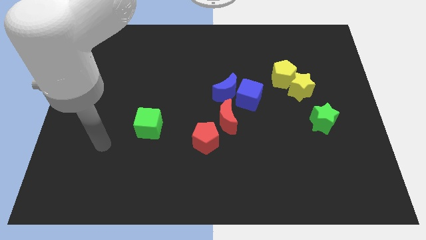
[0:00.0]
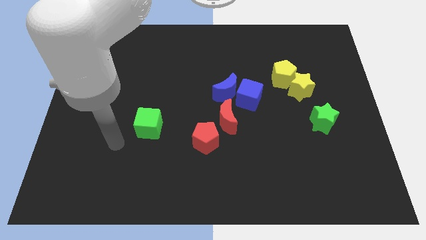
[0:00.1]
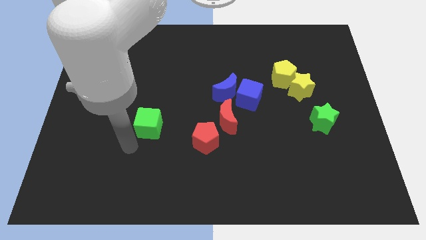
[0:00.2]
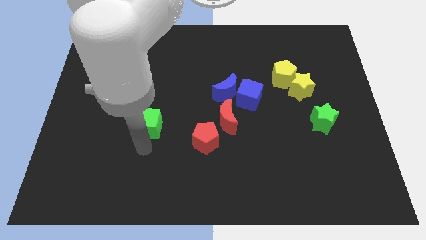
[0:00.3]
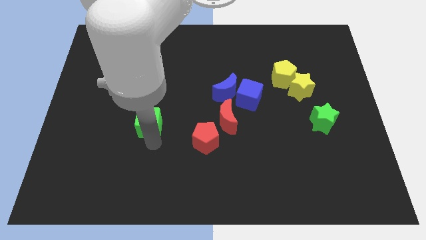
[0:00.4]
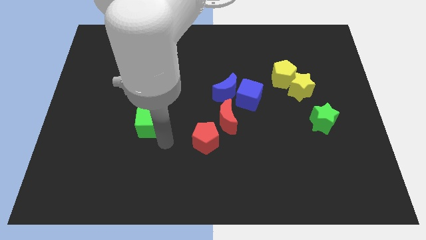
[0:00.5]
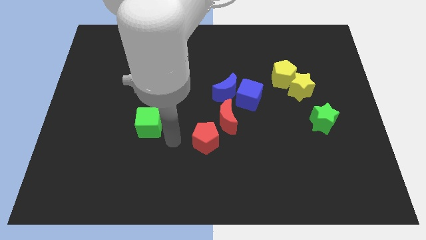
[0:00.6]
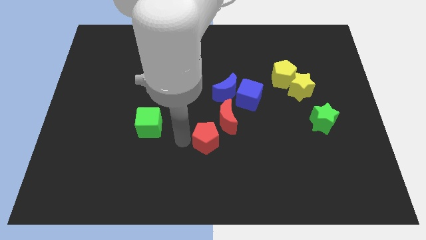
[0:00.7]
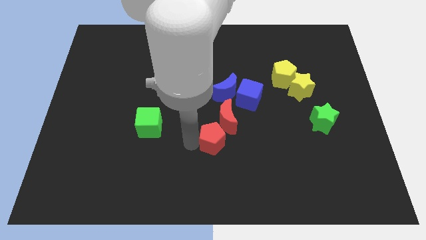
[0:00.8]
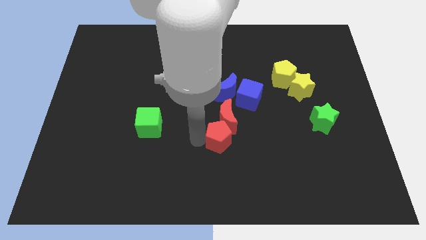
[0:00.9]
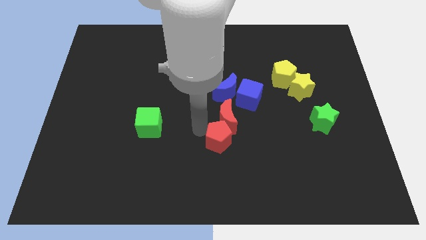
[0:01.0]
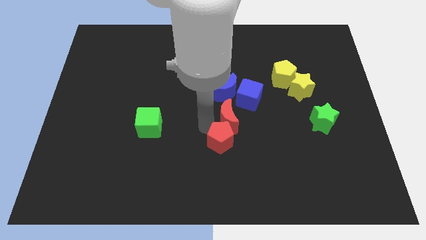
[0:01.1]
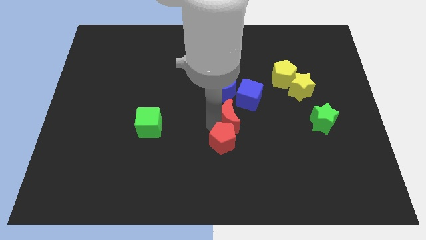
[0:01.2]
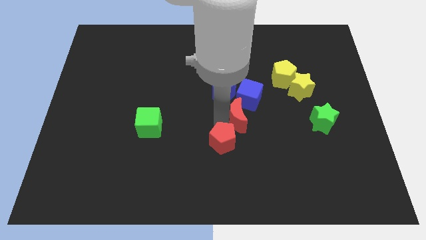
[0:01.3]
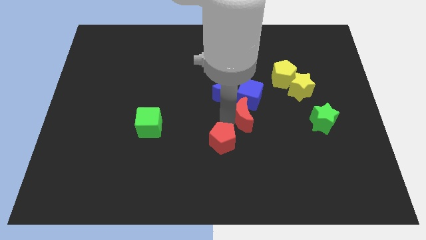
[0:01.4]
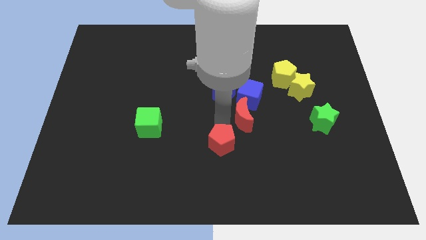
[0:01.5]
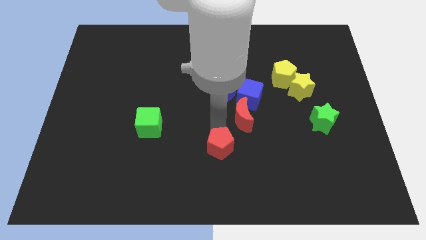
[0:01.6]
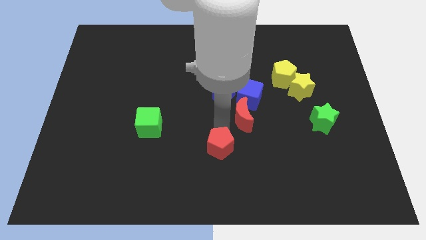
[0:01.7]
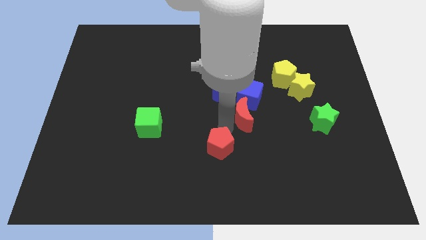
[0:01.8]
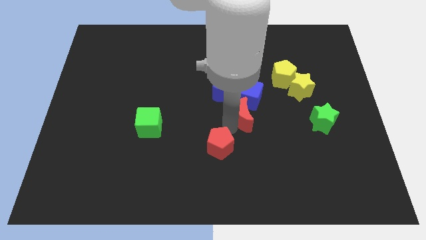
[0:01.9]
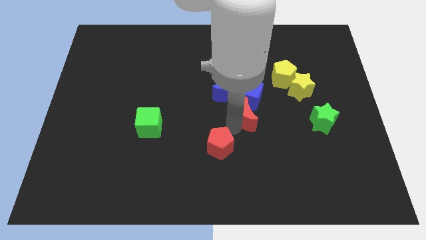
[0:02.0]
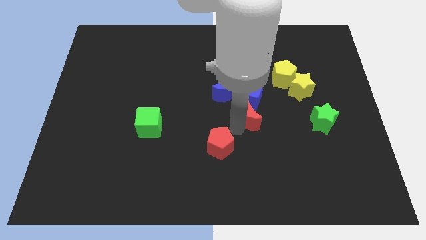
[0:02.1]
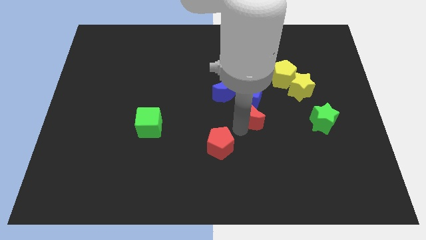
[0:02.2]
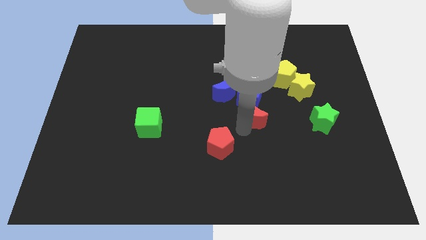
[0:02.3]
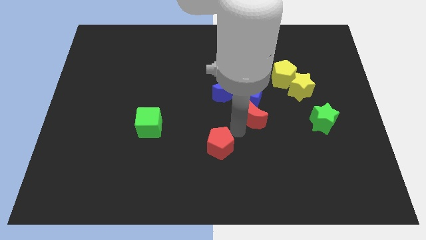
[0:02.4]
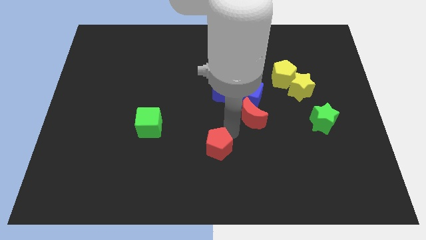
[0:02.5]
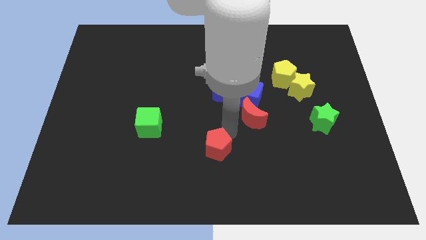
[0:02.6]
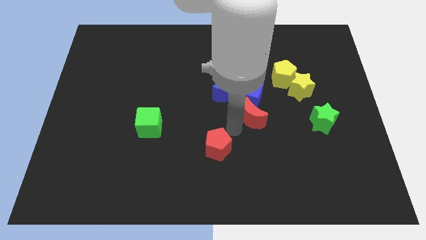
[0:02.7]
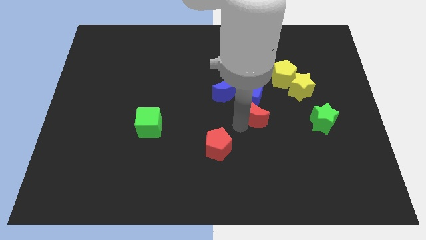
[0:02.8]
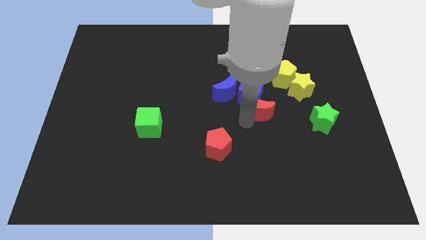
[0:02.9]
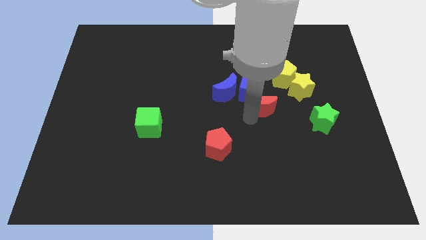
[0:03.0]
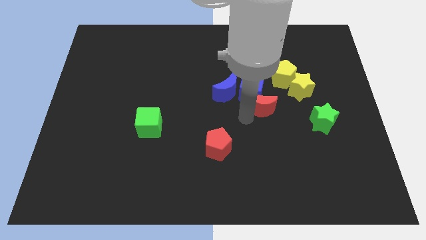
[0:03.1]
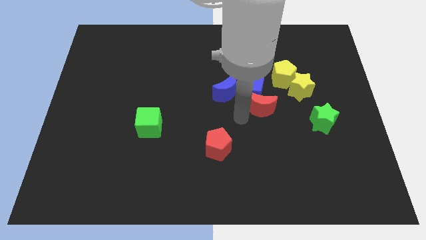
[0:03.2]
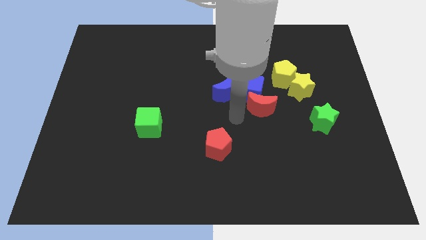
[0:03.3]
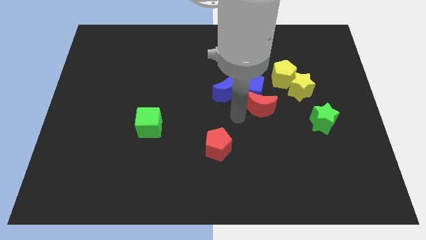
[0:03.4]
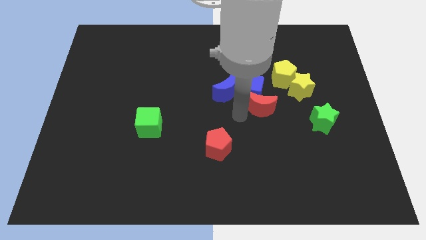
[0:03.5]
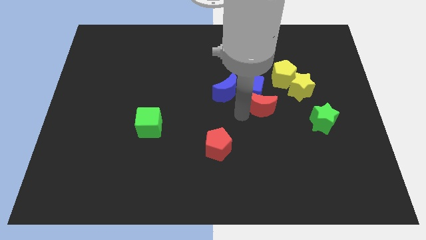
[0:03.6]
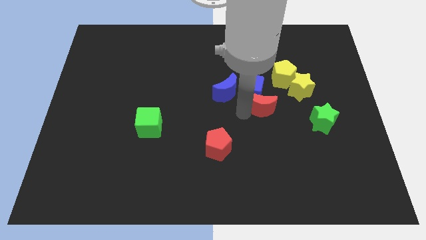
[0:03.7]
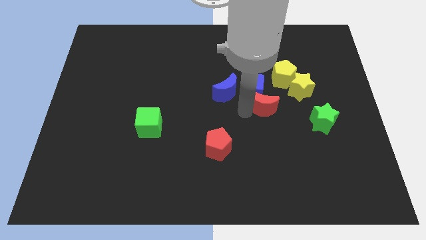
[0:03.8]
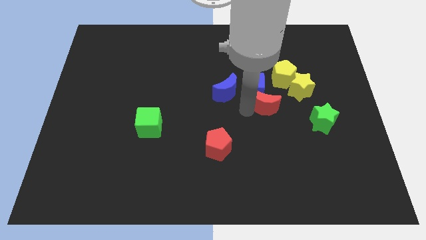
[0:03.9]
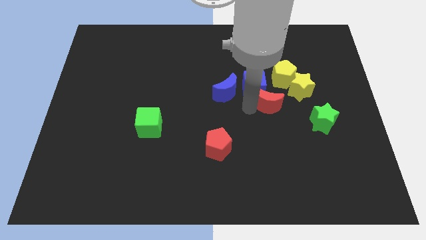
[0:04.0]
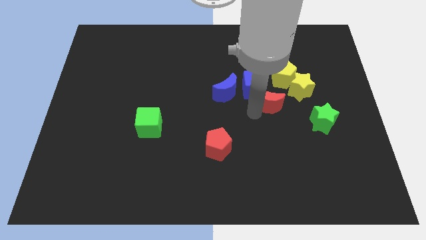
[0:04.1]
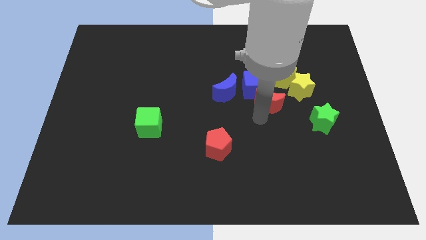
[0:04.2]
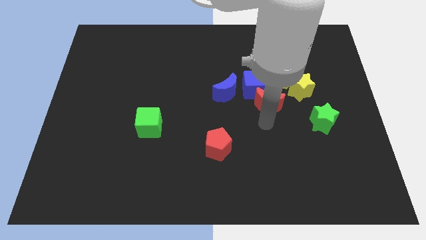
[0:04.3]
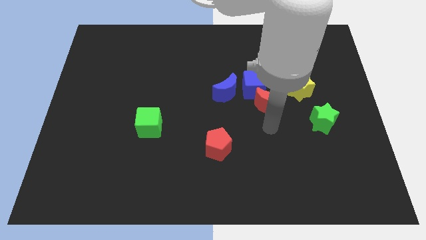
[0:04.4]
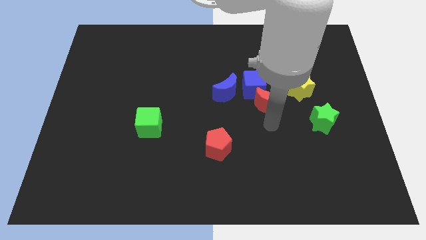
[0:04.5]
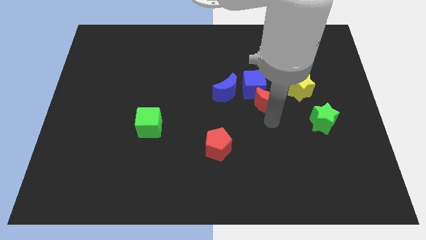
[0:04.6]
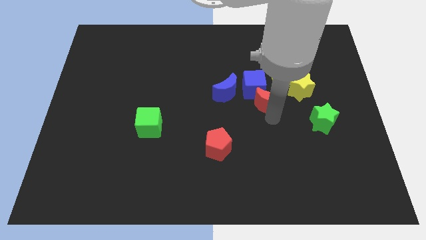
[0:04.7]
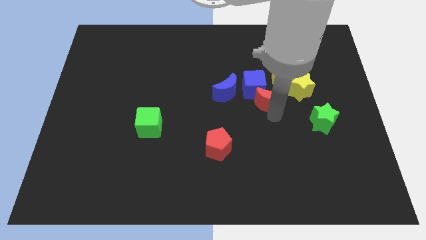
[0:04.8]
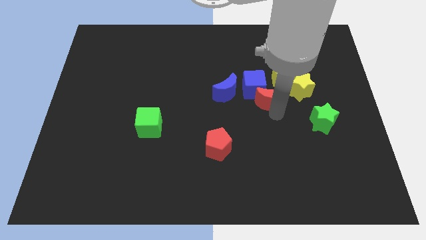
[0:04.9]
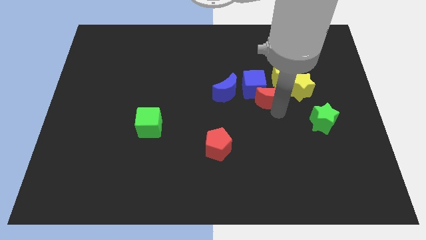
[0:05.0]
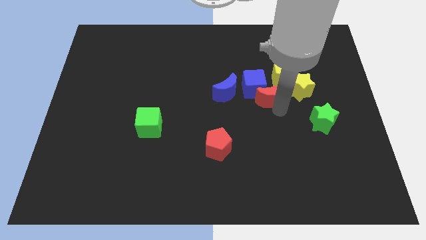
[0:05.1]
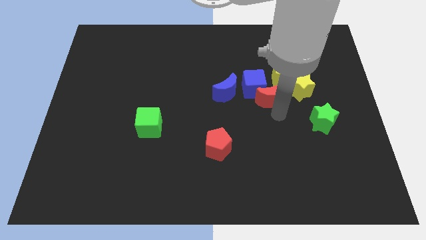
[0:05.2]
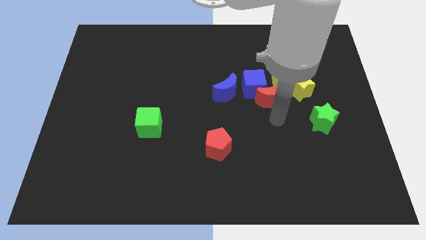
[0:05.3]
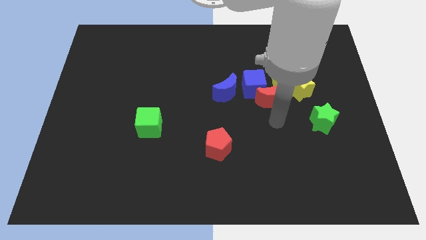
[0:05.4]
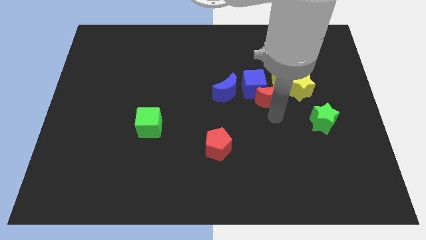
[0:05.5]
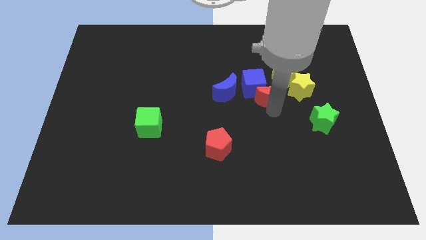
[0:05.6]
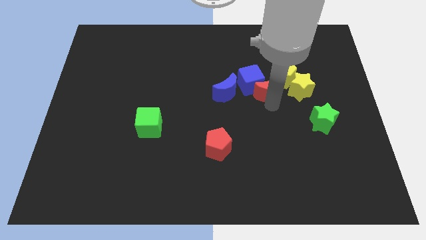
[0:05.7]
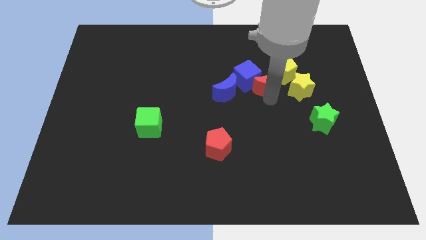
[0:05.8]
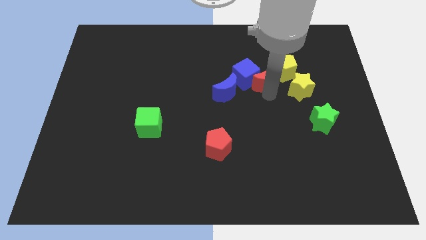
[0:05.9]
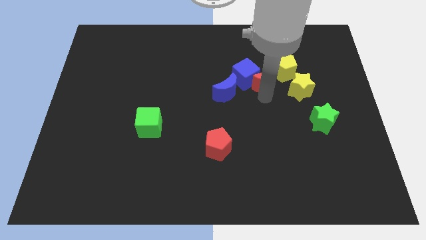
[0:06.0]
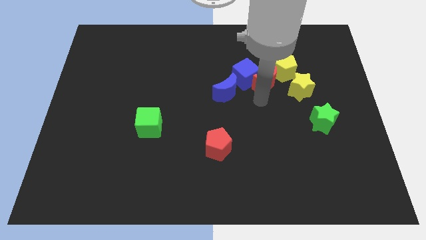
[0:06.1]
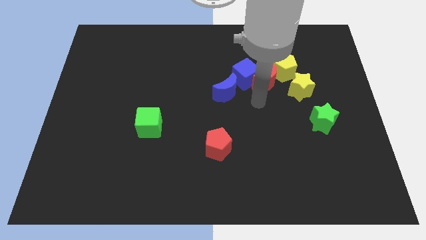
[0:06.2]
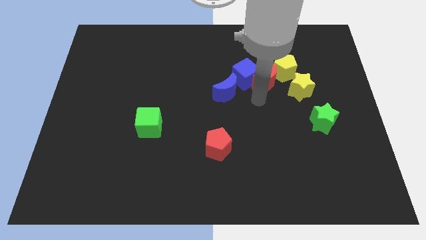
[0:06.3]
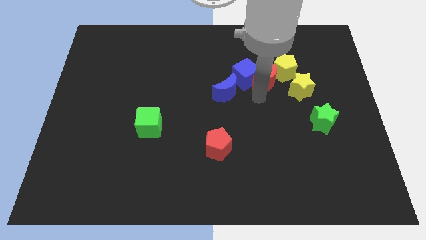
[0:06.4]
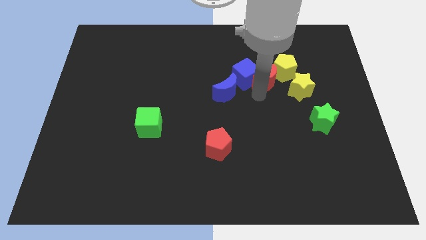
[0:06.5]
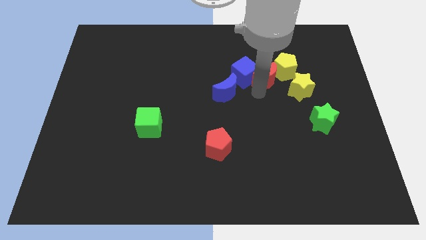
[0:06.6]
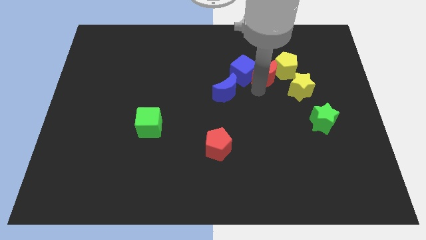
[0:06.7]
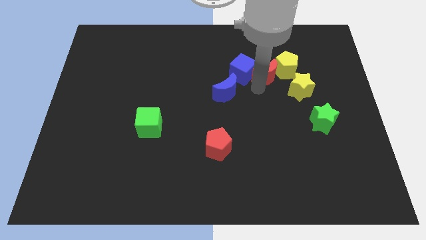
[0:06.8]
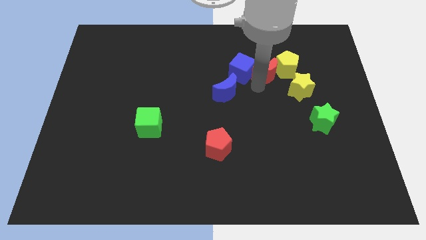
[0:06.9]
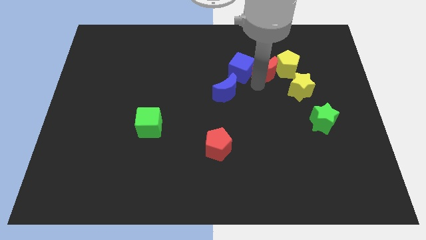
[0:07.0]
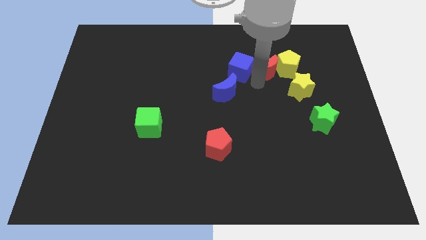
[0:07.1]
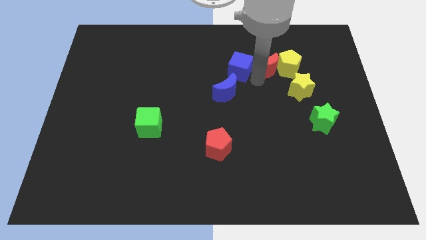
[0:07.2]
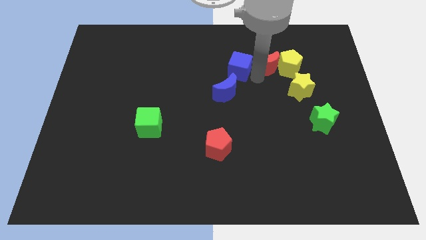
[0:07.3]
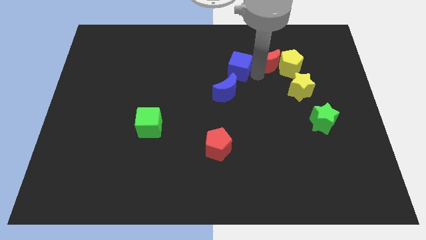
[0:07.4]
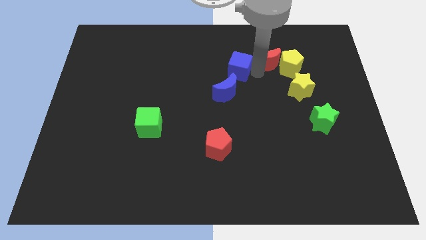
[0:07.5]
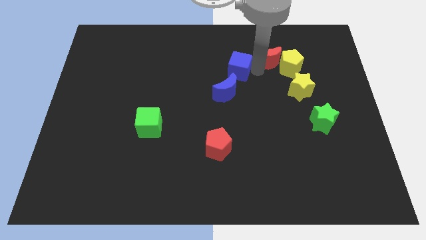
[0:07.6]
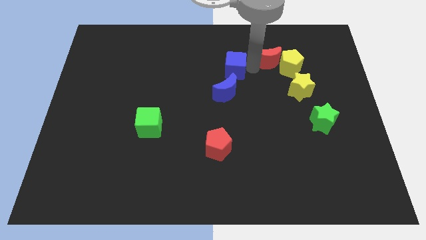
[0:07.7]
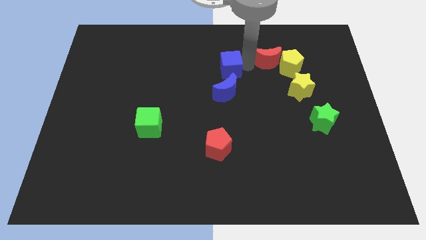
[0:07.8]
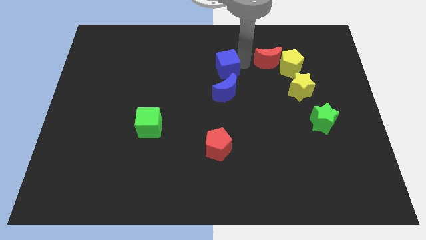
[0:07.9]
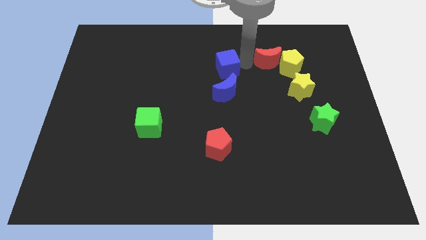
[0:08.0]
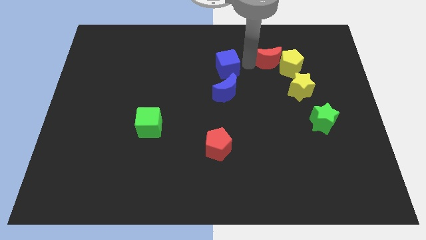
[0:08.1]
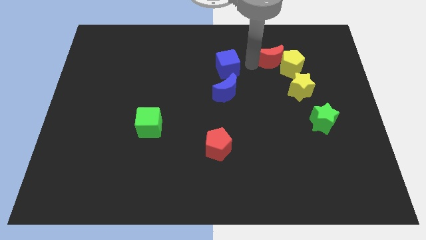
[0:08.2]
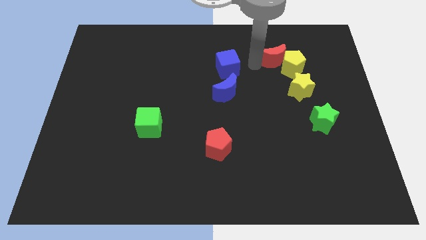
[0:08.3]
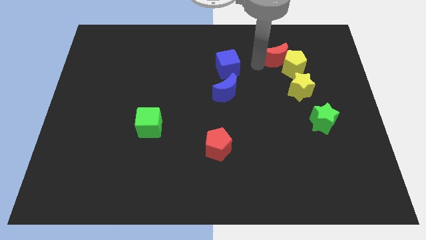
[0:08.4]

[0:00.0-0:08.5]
move the red moon to the top side of the yellow star
